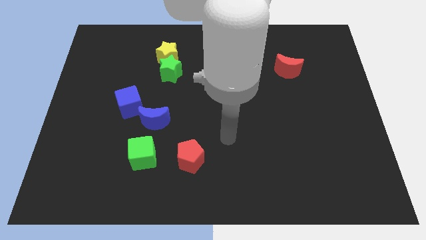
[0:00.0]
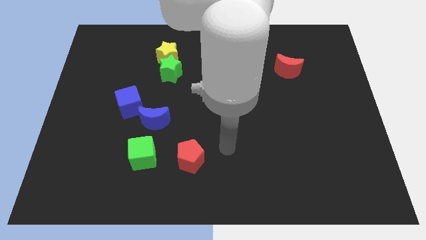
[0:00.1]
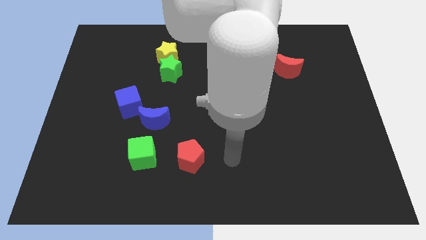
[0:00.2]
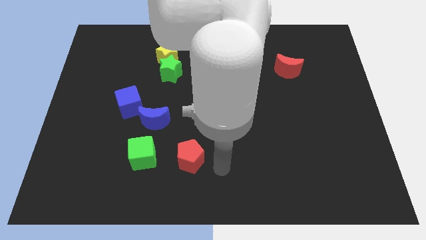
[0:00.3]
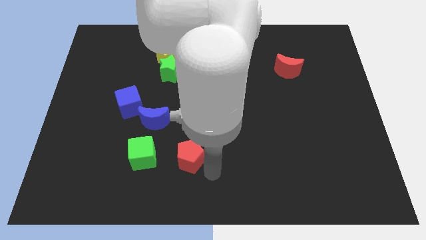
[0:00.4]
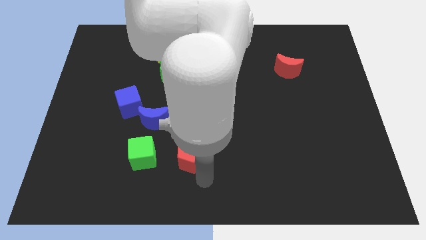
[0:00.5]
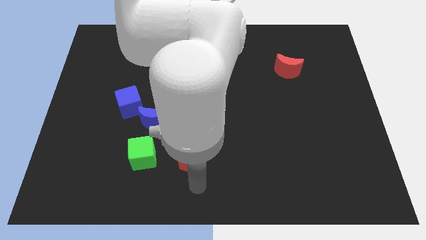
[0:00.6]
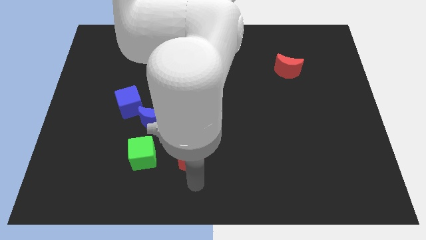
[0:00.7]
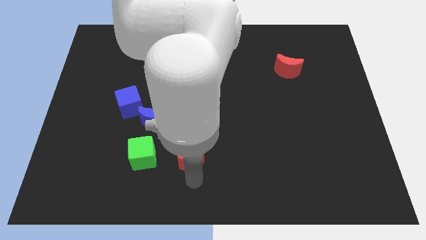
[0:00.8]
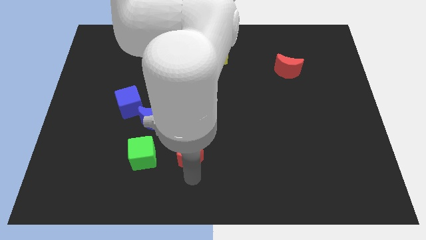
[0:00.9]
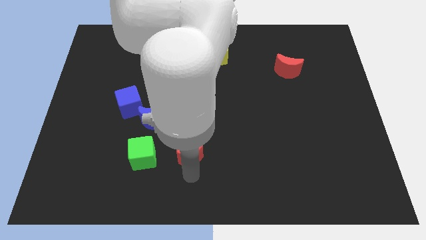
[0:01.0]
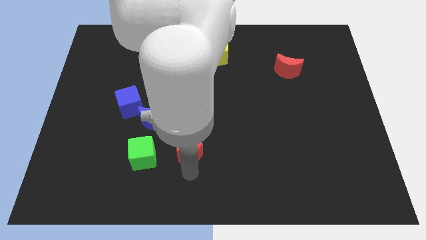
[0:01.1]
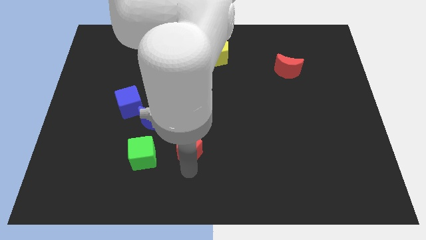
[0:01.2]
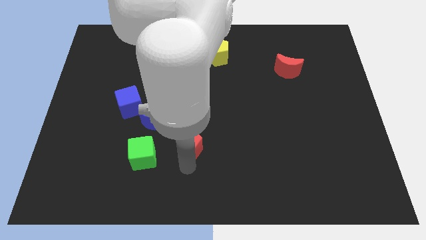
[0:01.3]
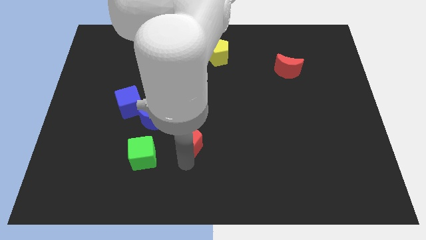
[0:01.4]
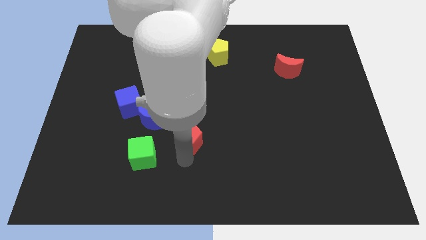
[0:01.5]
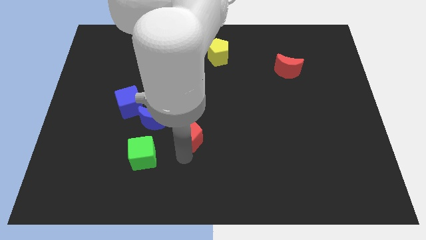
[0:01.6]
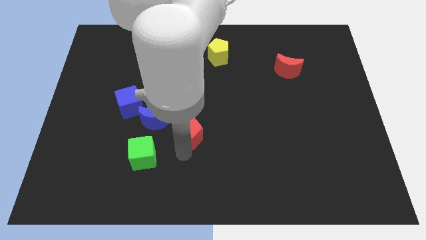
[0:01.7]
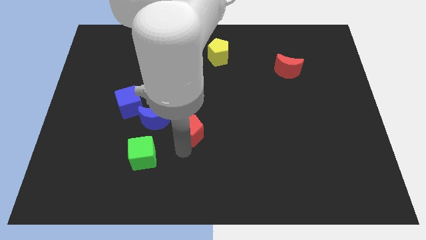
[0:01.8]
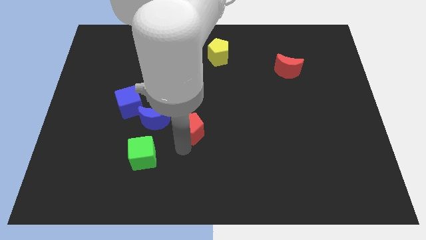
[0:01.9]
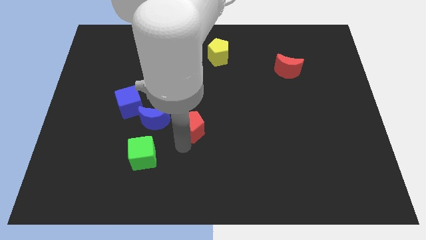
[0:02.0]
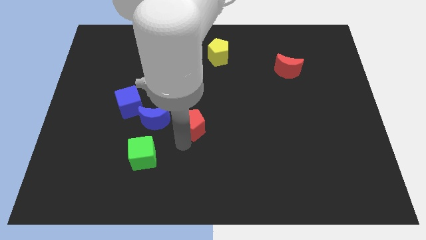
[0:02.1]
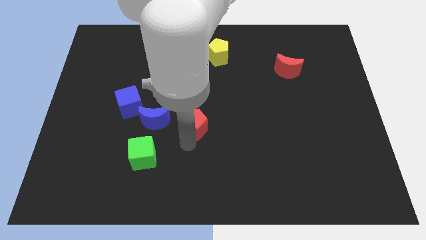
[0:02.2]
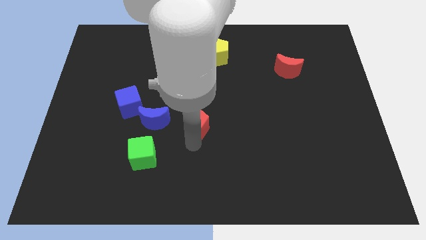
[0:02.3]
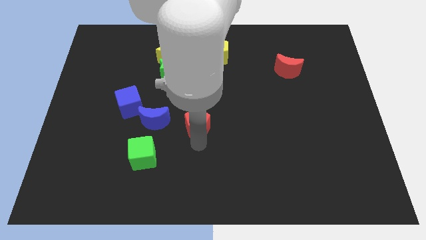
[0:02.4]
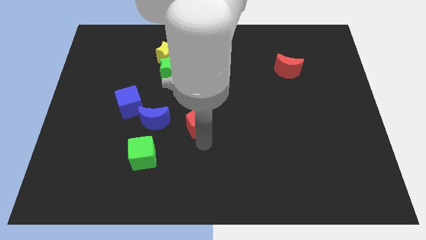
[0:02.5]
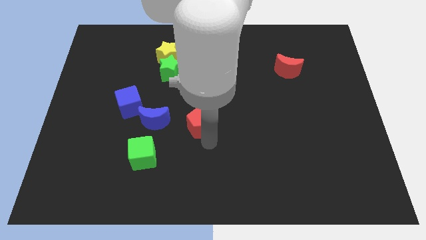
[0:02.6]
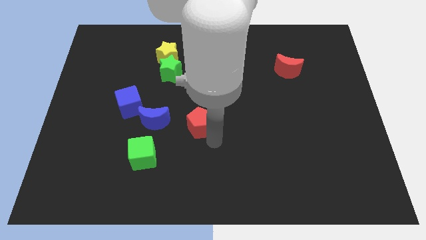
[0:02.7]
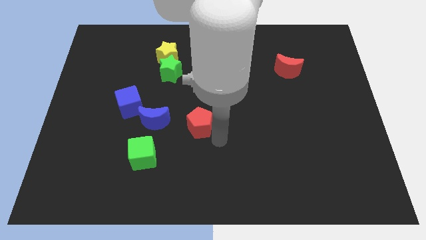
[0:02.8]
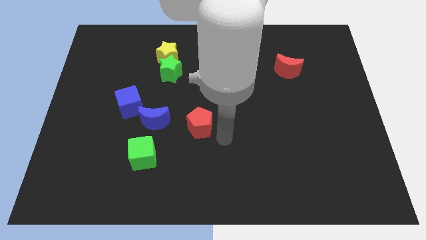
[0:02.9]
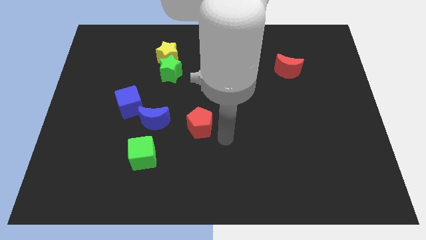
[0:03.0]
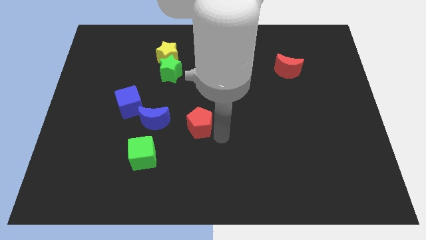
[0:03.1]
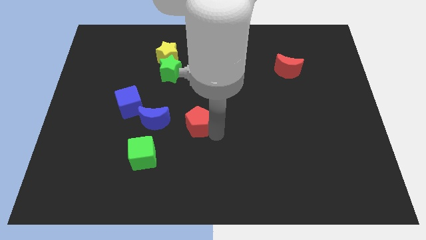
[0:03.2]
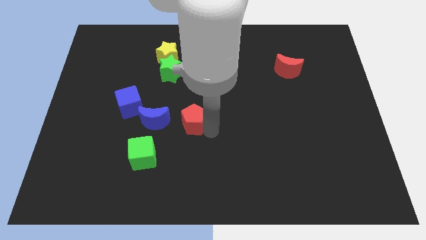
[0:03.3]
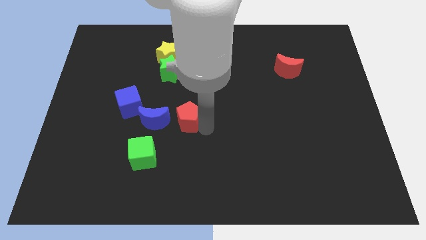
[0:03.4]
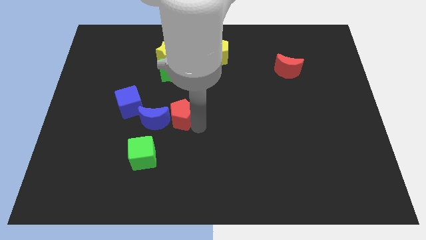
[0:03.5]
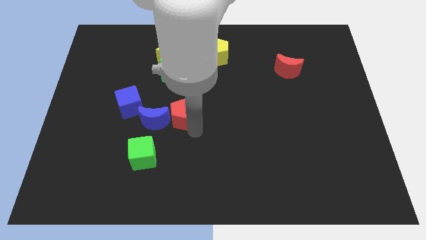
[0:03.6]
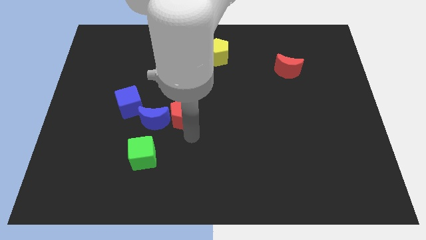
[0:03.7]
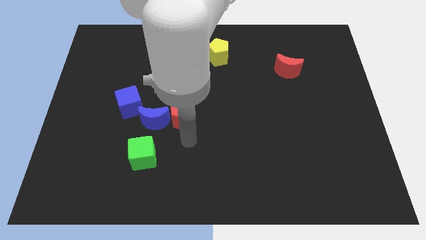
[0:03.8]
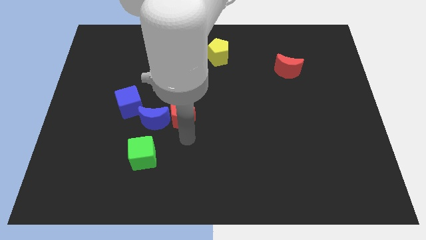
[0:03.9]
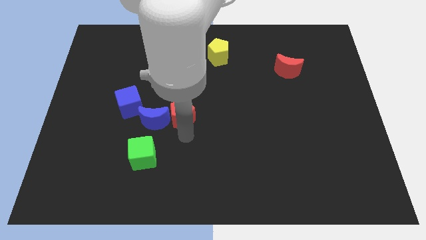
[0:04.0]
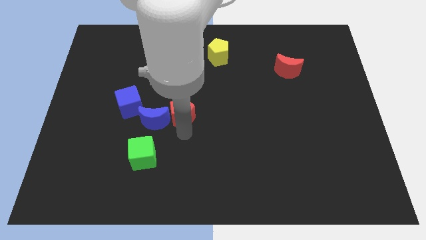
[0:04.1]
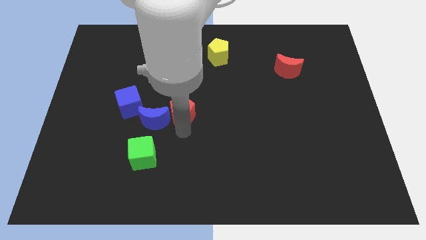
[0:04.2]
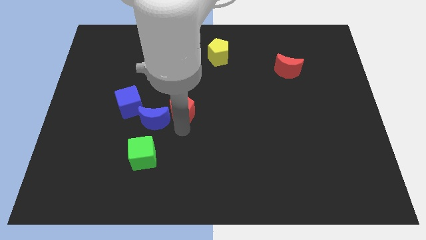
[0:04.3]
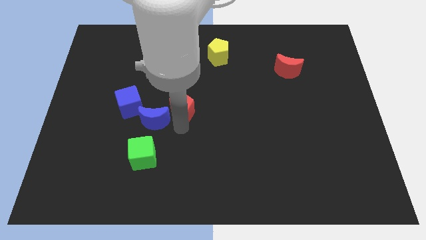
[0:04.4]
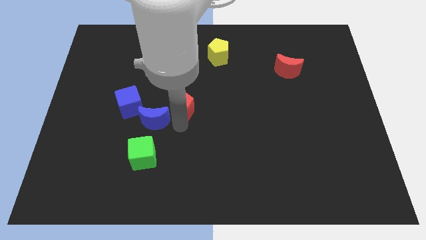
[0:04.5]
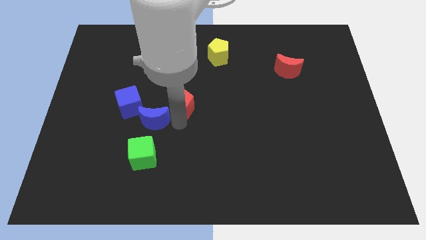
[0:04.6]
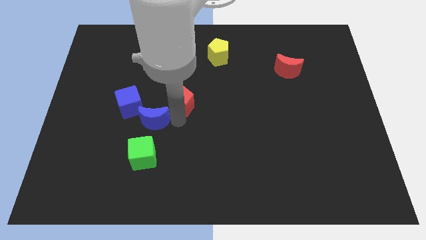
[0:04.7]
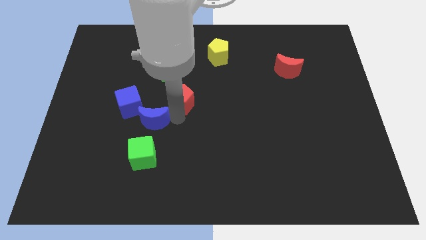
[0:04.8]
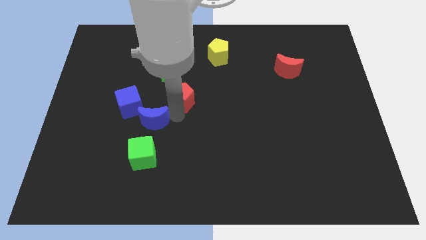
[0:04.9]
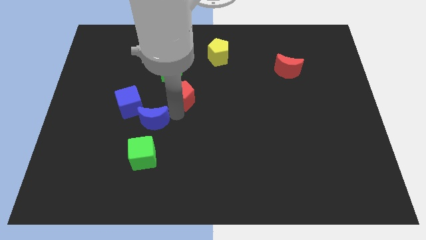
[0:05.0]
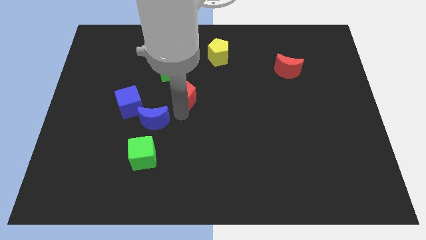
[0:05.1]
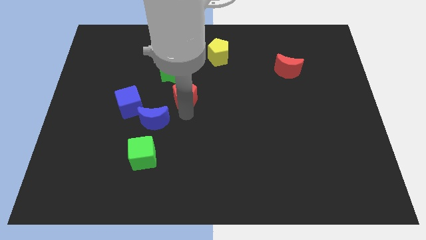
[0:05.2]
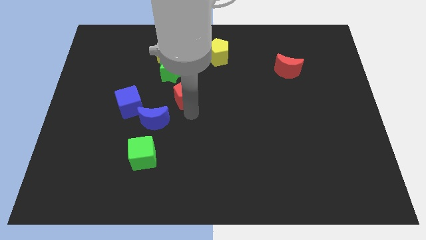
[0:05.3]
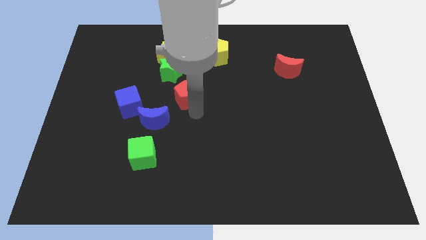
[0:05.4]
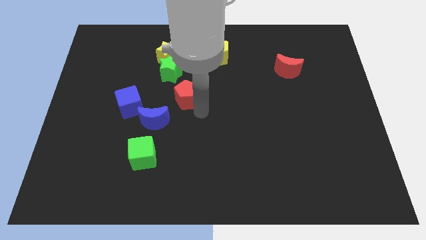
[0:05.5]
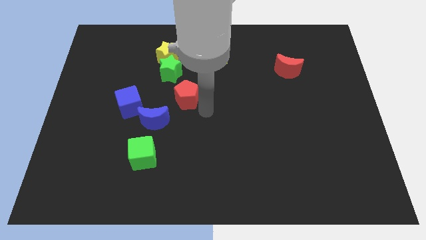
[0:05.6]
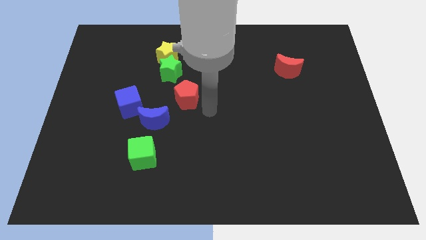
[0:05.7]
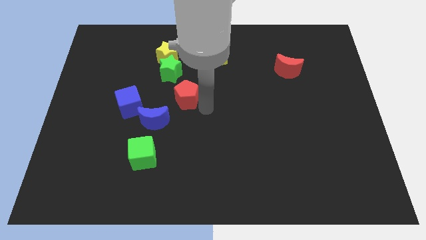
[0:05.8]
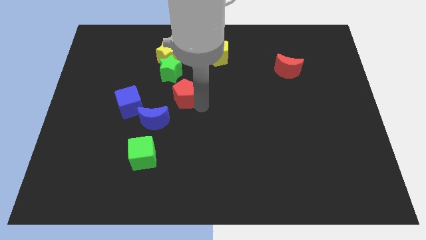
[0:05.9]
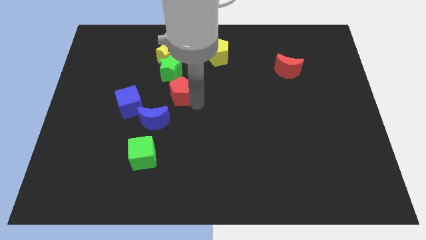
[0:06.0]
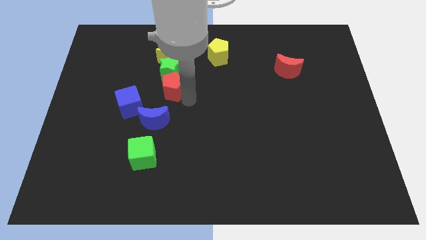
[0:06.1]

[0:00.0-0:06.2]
move the red pentagon towards the green star

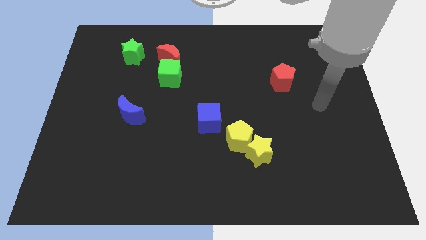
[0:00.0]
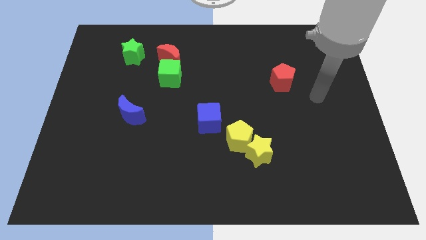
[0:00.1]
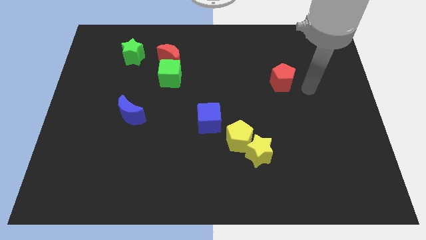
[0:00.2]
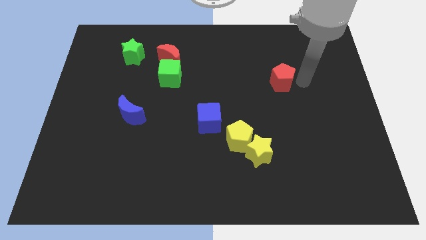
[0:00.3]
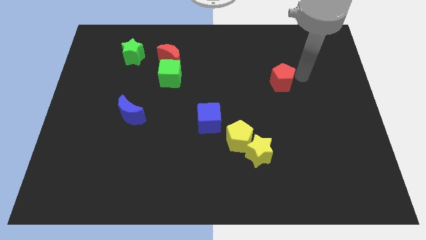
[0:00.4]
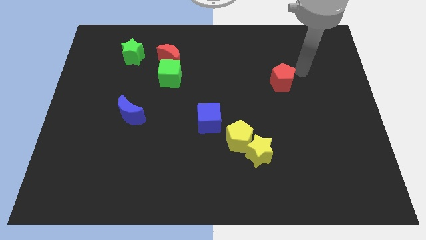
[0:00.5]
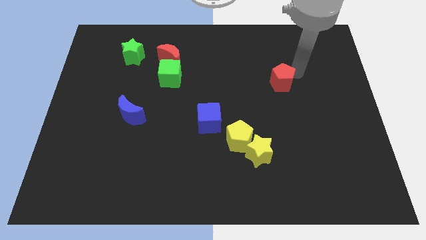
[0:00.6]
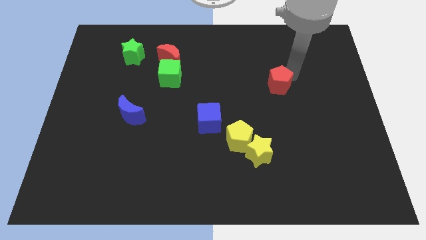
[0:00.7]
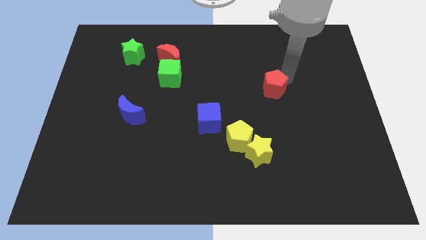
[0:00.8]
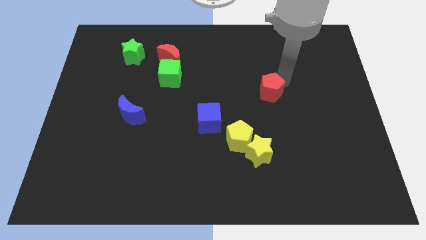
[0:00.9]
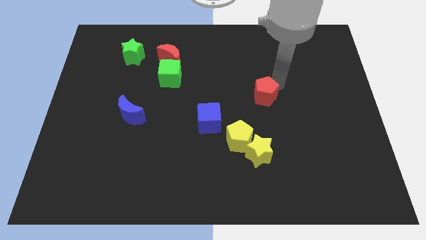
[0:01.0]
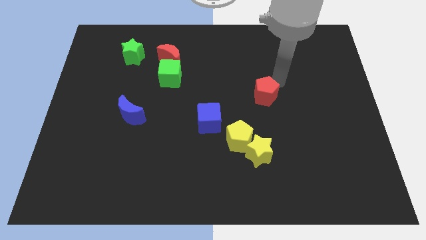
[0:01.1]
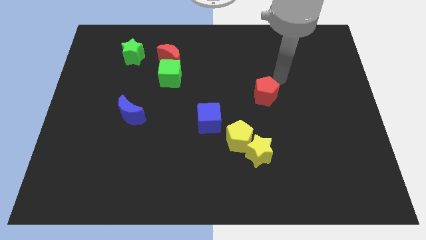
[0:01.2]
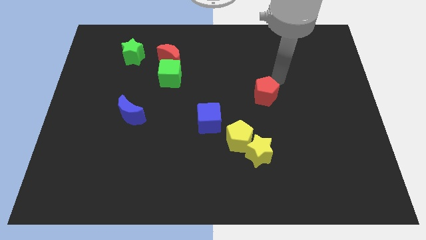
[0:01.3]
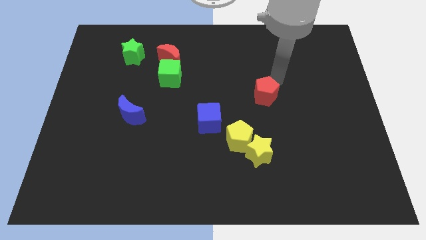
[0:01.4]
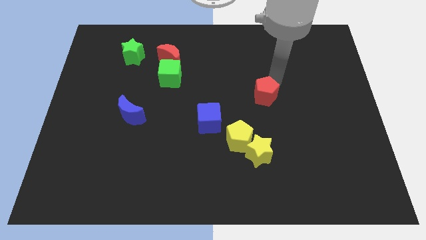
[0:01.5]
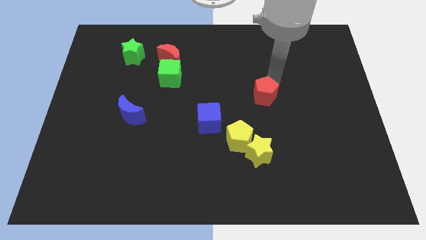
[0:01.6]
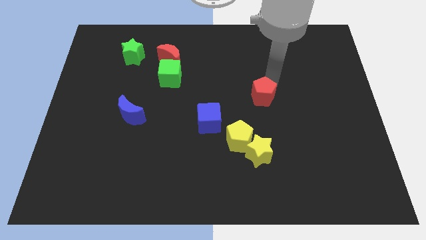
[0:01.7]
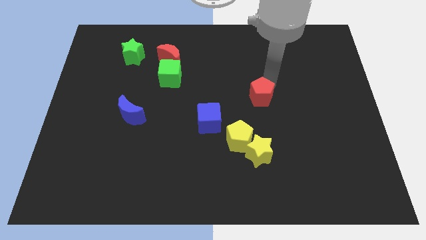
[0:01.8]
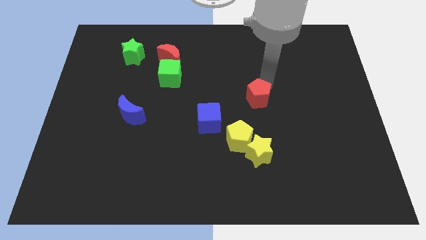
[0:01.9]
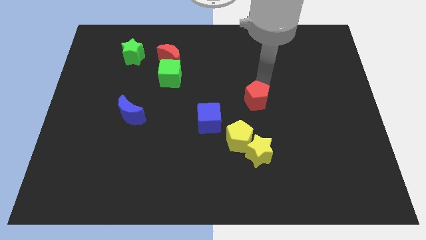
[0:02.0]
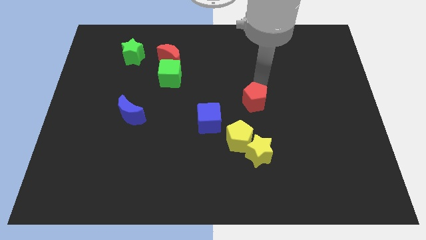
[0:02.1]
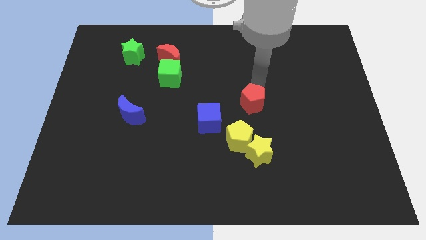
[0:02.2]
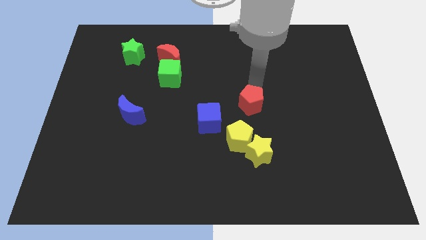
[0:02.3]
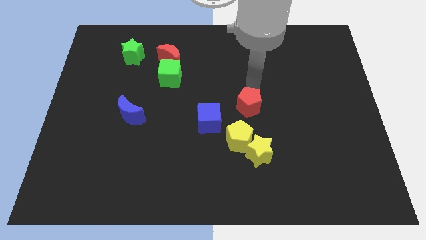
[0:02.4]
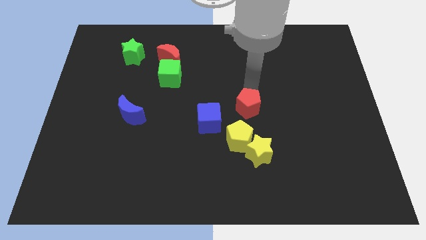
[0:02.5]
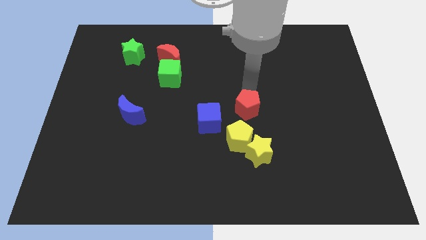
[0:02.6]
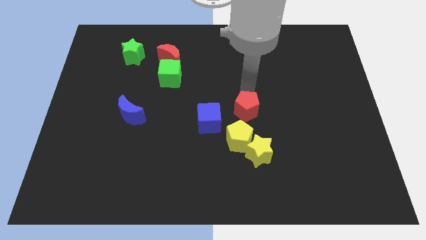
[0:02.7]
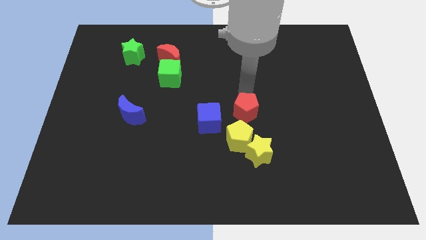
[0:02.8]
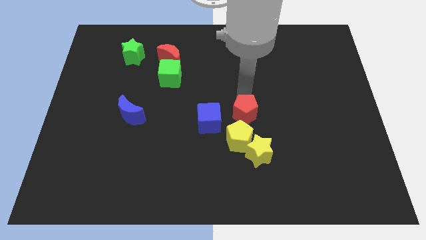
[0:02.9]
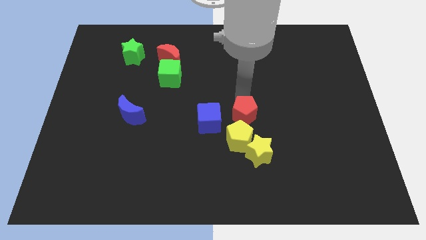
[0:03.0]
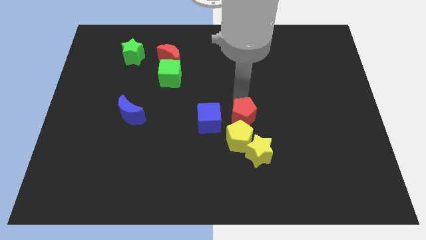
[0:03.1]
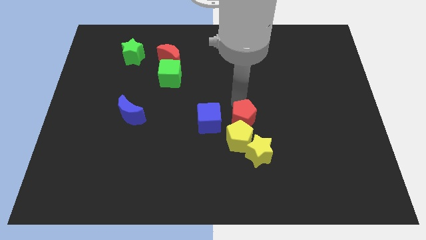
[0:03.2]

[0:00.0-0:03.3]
put the red pentagon close to the yellow pentagon
